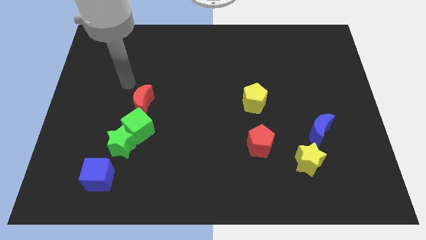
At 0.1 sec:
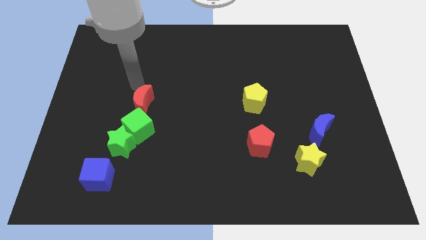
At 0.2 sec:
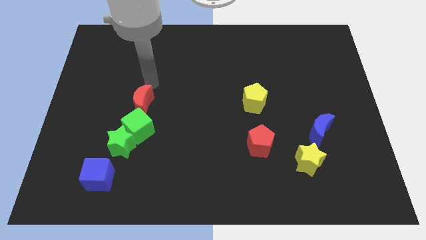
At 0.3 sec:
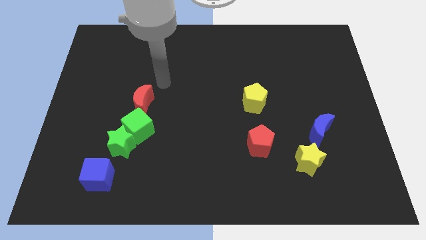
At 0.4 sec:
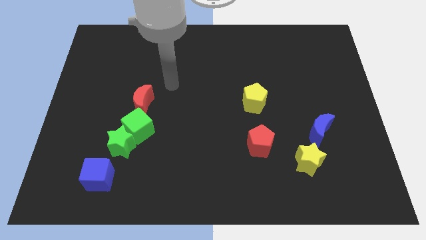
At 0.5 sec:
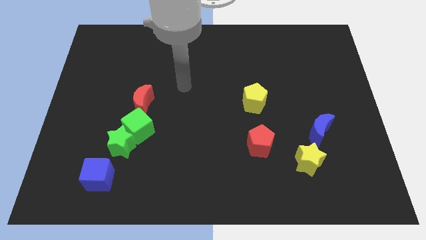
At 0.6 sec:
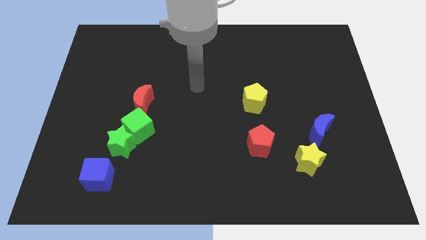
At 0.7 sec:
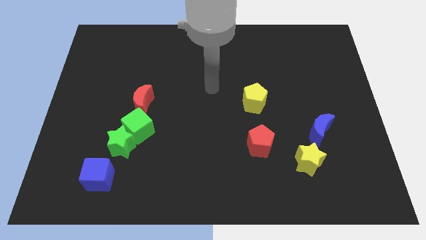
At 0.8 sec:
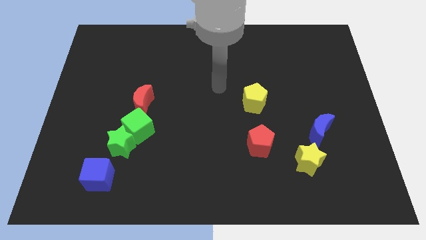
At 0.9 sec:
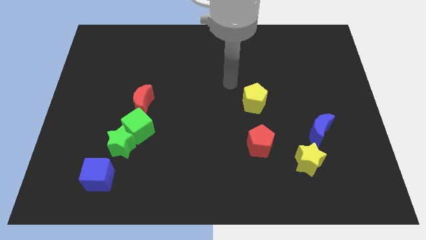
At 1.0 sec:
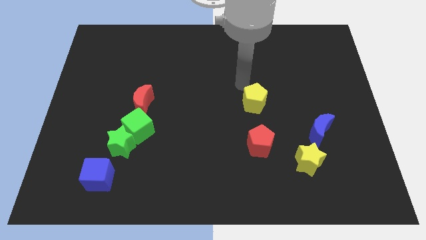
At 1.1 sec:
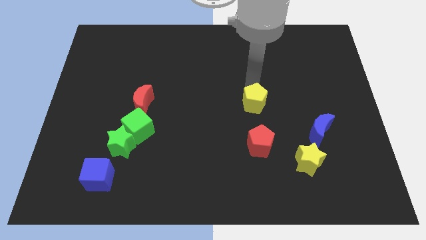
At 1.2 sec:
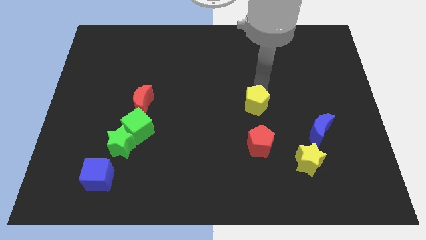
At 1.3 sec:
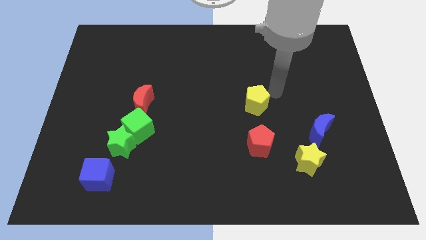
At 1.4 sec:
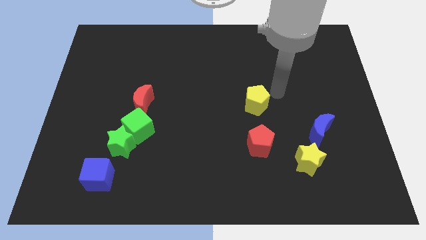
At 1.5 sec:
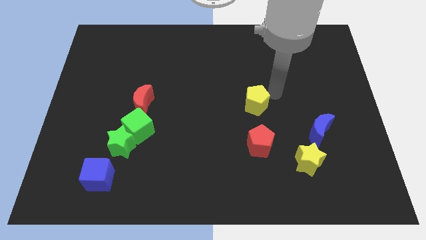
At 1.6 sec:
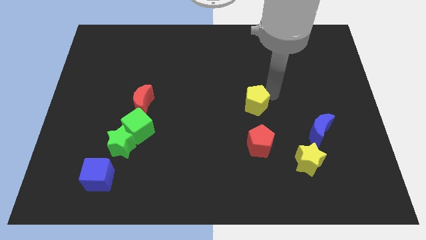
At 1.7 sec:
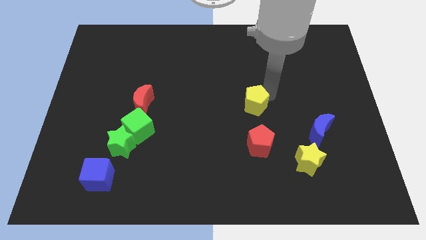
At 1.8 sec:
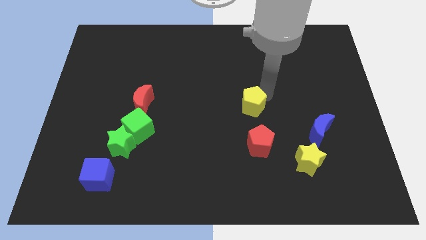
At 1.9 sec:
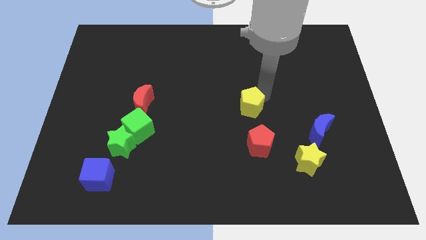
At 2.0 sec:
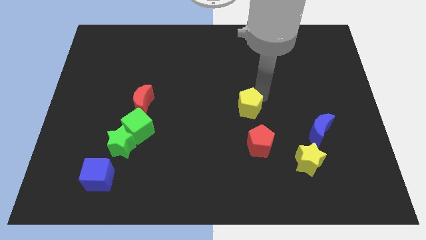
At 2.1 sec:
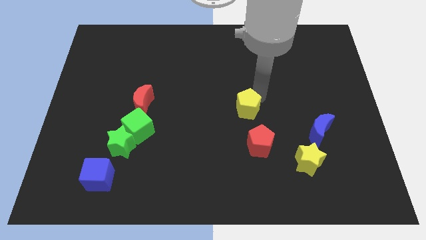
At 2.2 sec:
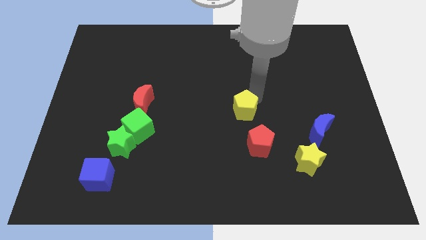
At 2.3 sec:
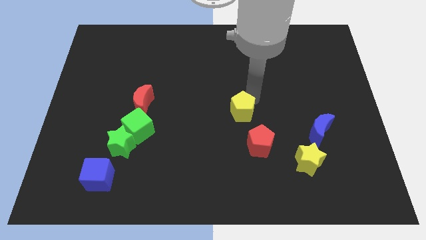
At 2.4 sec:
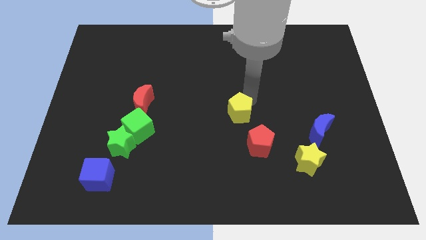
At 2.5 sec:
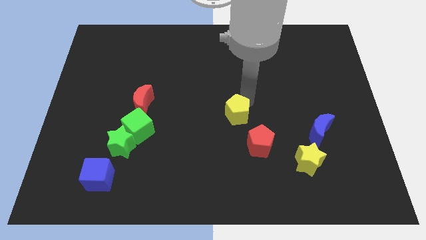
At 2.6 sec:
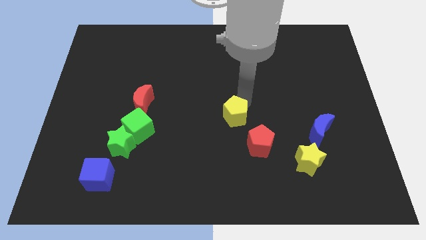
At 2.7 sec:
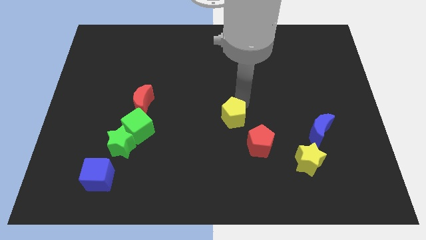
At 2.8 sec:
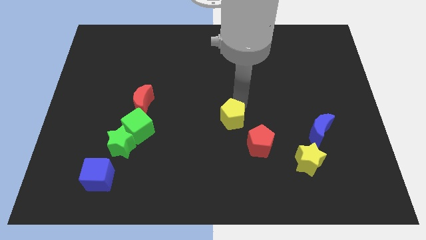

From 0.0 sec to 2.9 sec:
push the yellow pentagon diagonally downwards and to the left somewhat

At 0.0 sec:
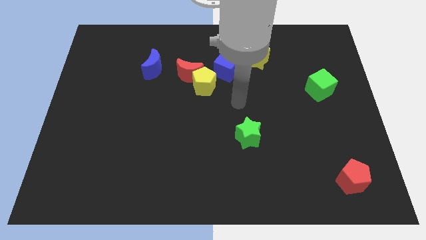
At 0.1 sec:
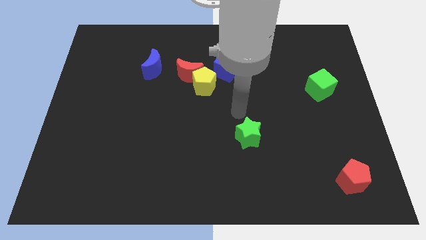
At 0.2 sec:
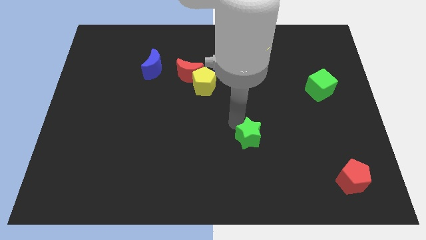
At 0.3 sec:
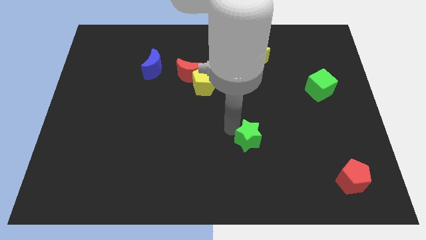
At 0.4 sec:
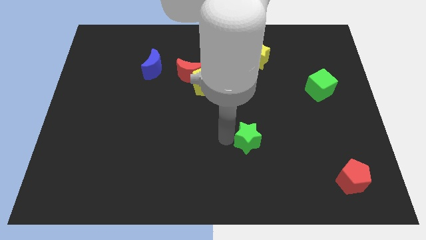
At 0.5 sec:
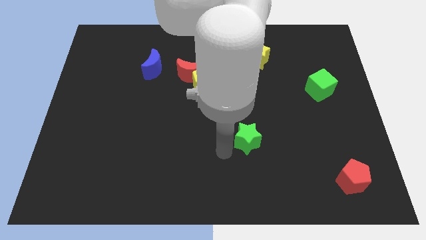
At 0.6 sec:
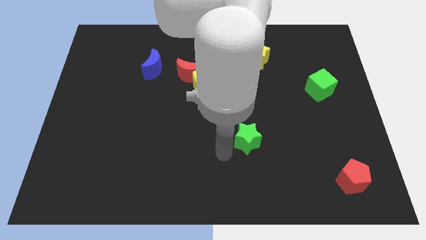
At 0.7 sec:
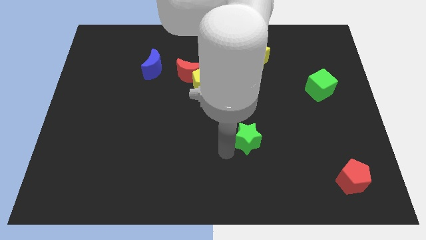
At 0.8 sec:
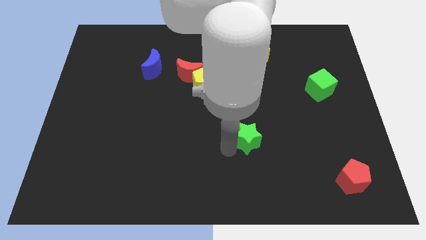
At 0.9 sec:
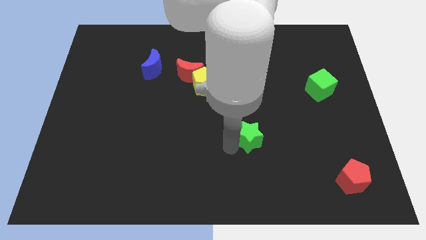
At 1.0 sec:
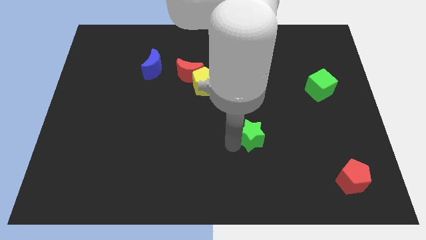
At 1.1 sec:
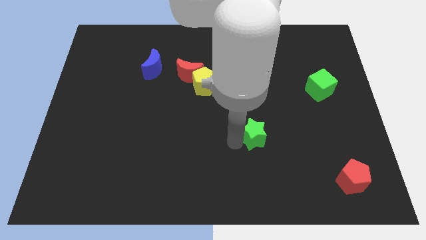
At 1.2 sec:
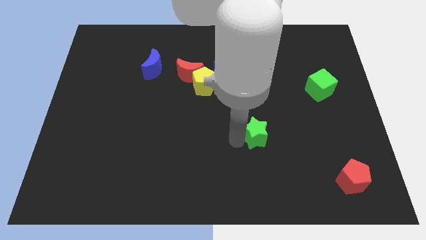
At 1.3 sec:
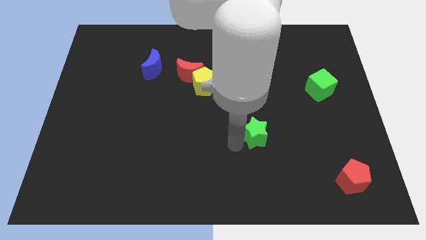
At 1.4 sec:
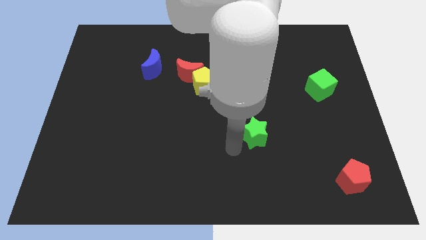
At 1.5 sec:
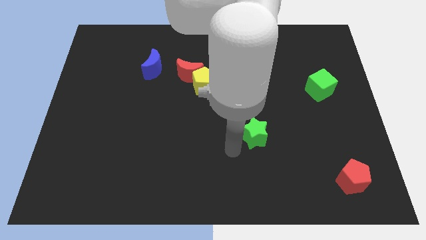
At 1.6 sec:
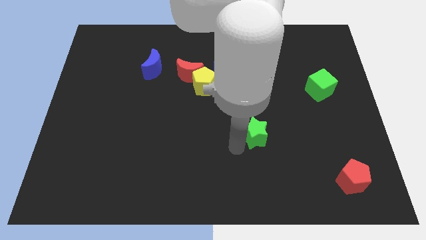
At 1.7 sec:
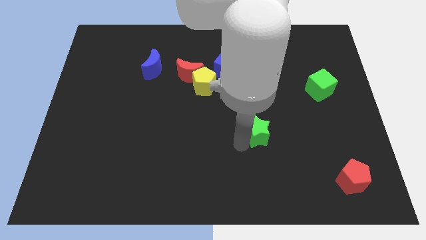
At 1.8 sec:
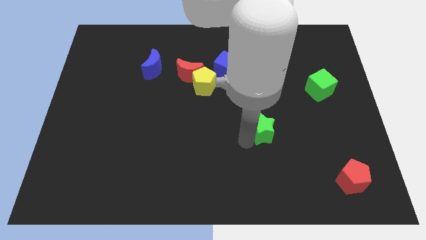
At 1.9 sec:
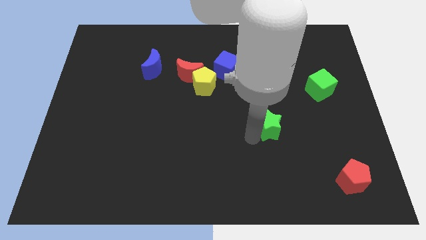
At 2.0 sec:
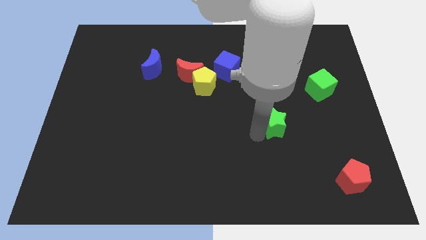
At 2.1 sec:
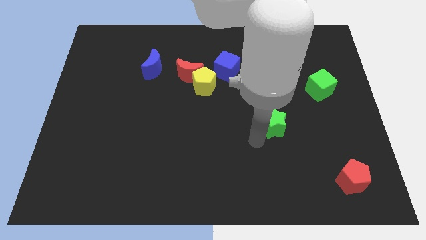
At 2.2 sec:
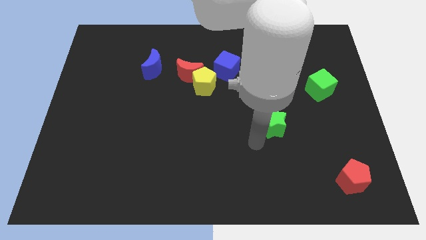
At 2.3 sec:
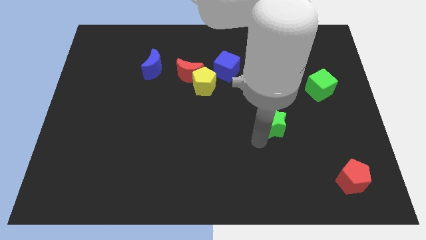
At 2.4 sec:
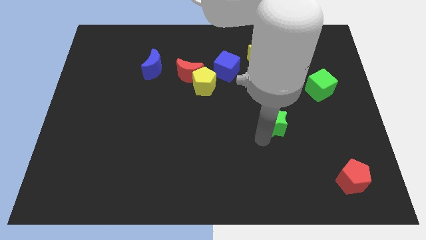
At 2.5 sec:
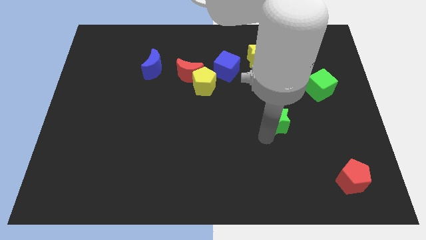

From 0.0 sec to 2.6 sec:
slightly slide the green star upwards and then right

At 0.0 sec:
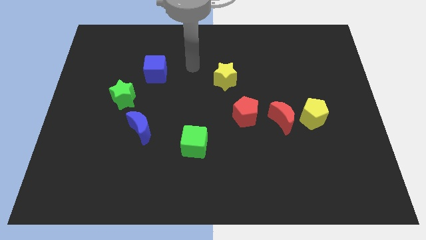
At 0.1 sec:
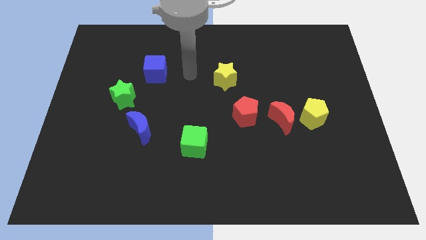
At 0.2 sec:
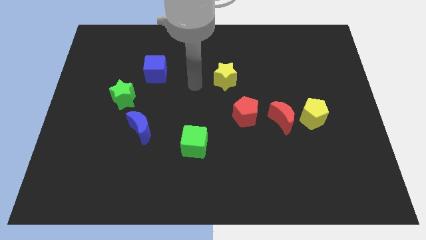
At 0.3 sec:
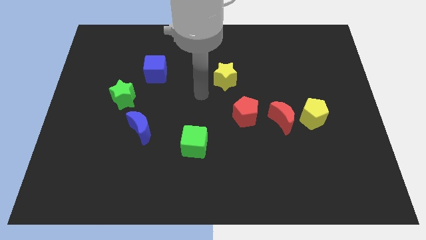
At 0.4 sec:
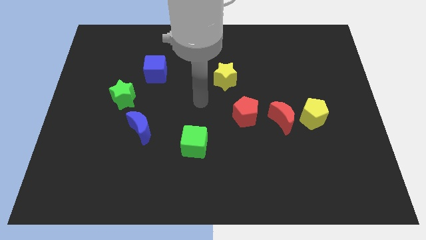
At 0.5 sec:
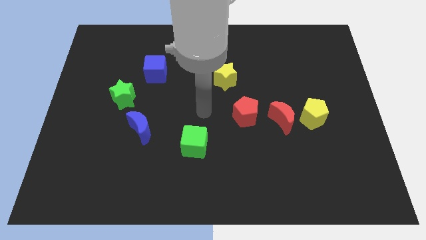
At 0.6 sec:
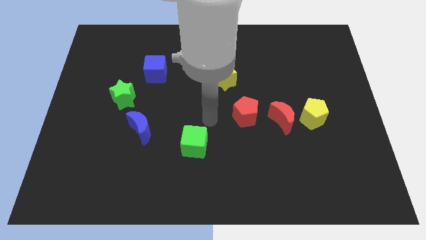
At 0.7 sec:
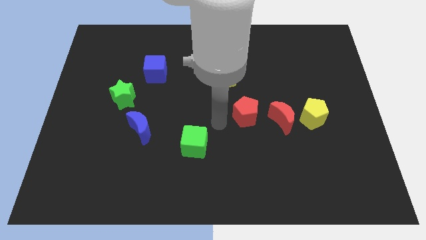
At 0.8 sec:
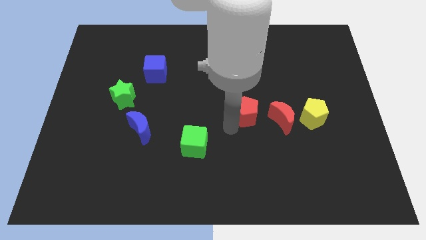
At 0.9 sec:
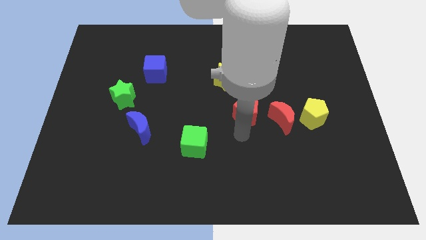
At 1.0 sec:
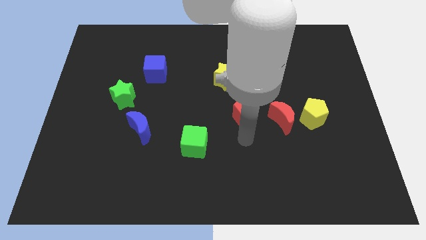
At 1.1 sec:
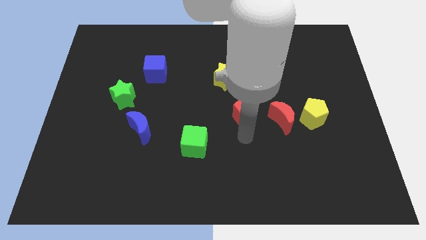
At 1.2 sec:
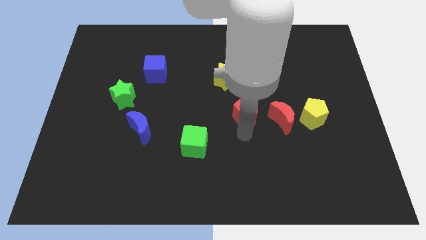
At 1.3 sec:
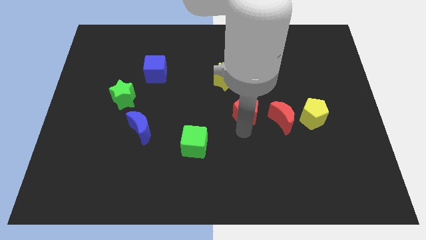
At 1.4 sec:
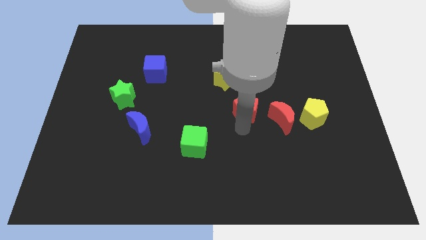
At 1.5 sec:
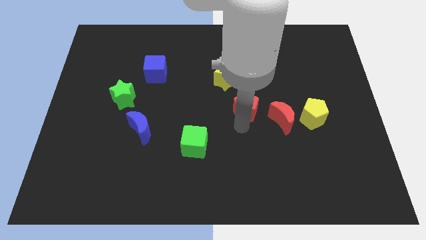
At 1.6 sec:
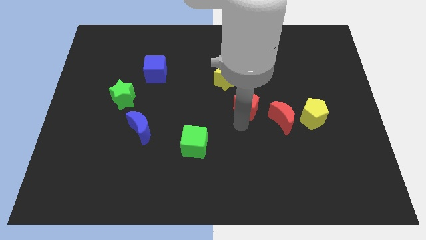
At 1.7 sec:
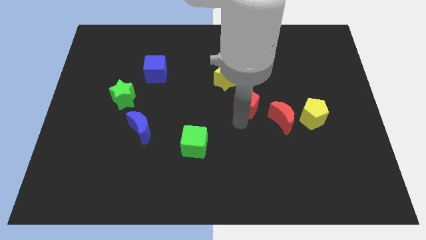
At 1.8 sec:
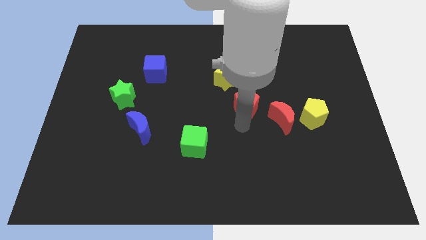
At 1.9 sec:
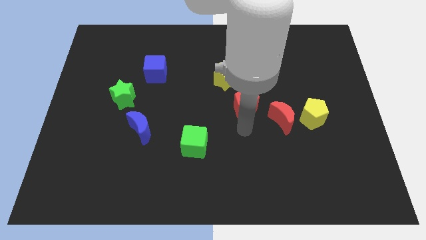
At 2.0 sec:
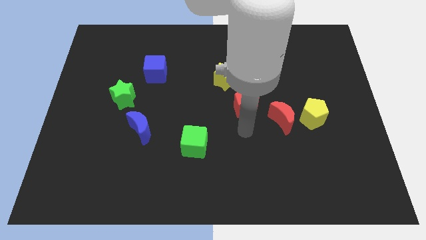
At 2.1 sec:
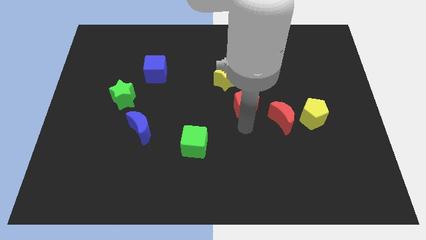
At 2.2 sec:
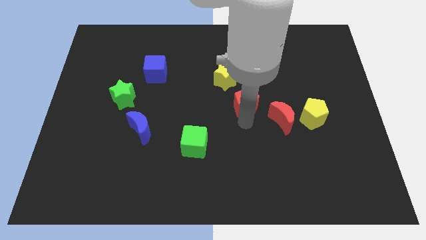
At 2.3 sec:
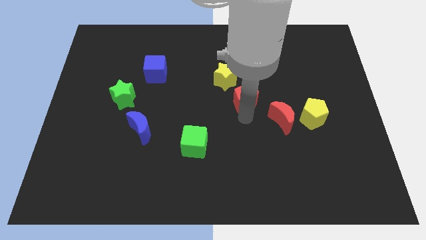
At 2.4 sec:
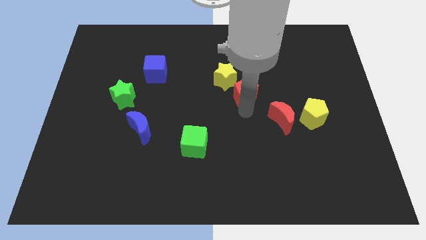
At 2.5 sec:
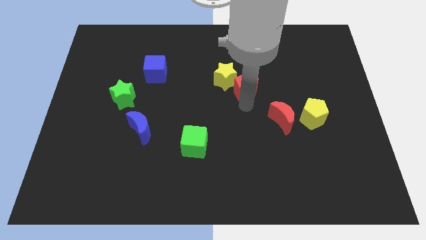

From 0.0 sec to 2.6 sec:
push the red pentagon a bit upwards
